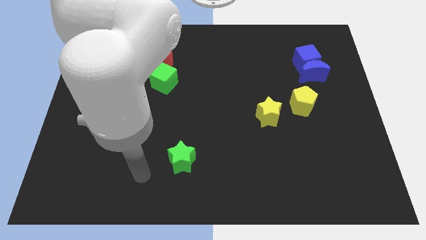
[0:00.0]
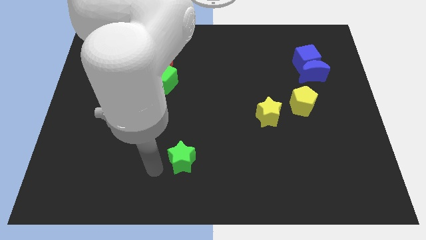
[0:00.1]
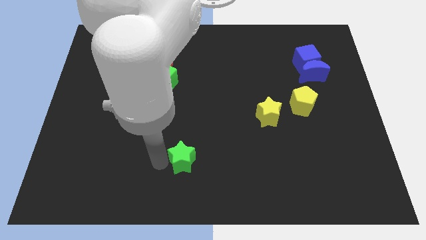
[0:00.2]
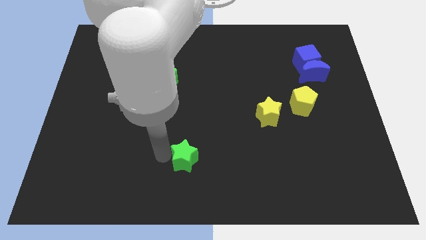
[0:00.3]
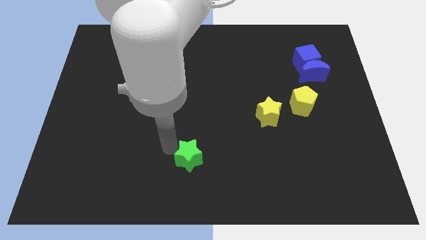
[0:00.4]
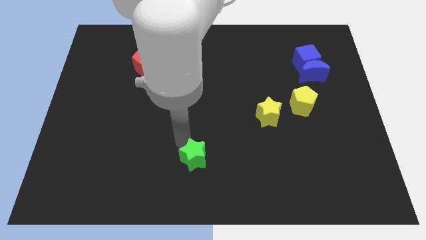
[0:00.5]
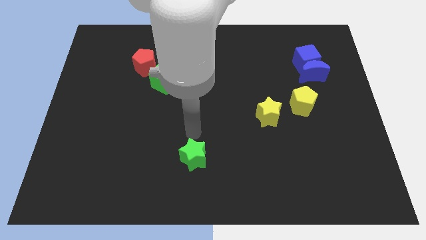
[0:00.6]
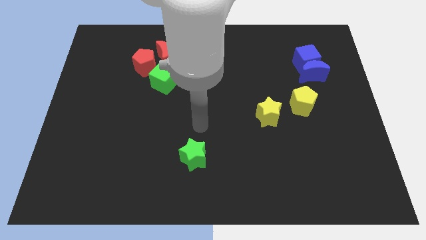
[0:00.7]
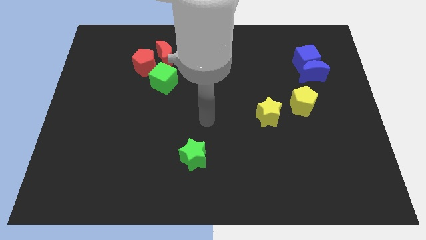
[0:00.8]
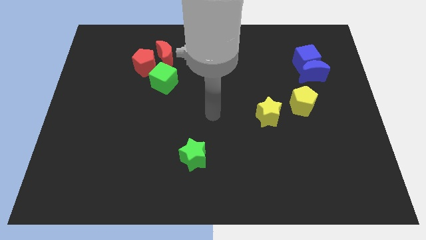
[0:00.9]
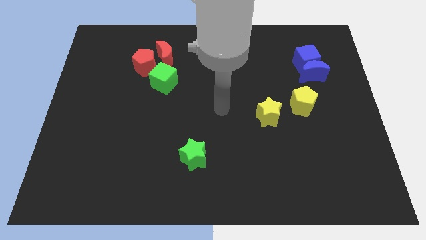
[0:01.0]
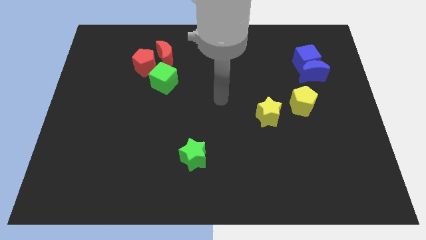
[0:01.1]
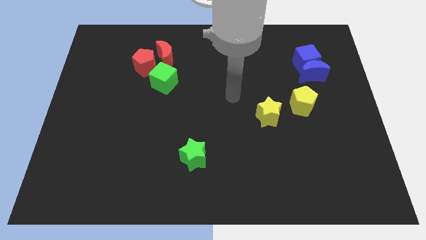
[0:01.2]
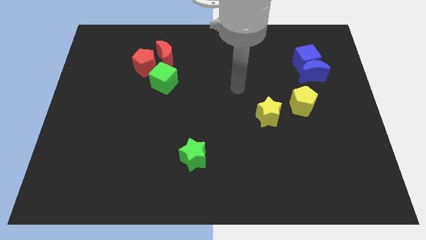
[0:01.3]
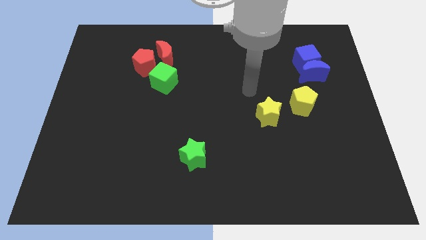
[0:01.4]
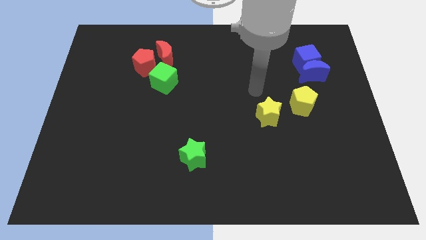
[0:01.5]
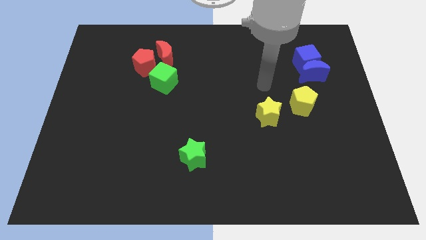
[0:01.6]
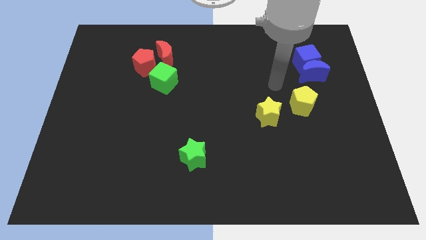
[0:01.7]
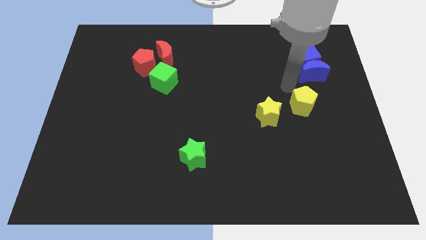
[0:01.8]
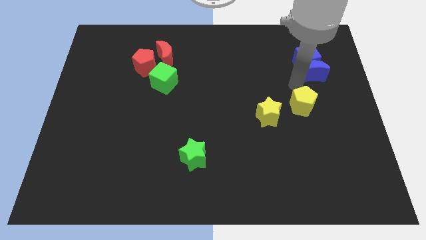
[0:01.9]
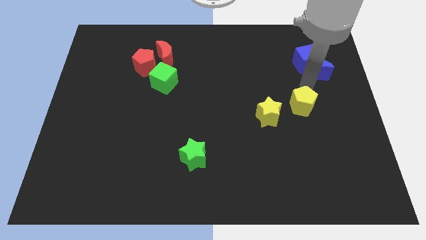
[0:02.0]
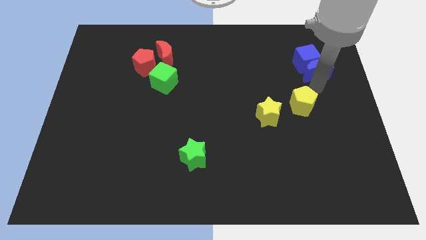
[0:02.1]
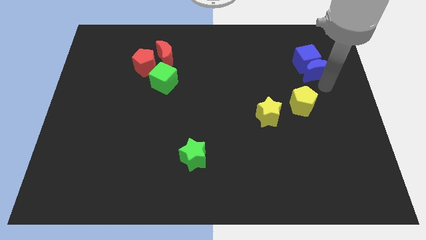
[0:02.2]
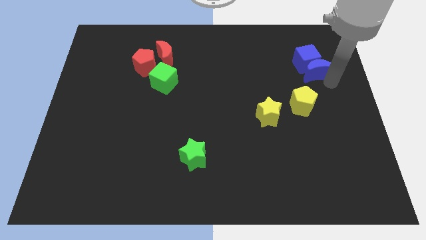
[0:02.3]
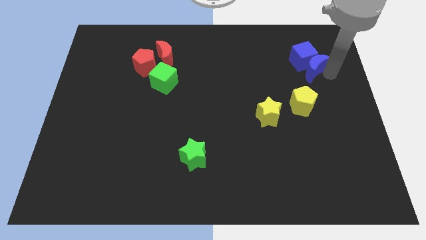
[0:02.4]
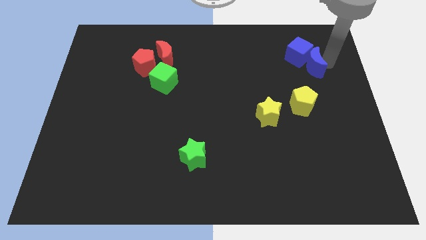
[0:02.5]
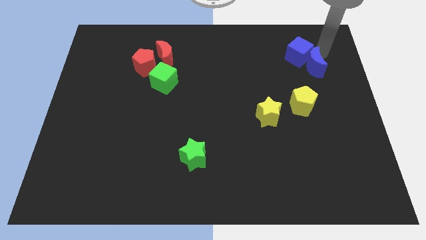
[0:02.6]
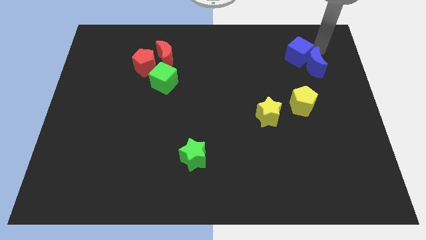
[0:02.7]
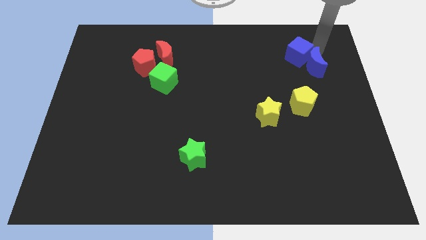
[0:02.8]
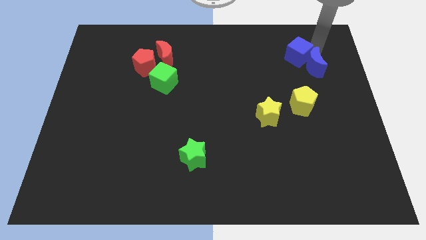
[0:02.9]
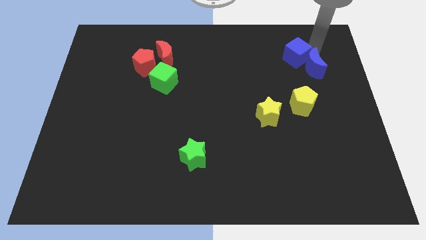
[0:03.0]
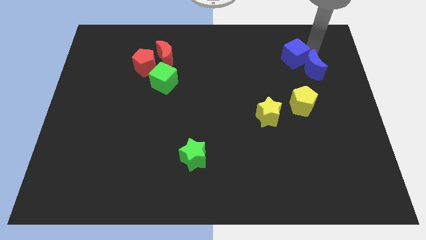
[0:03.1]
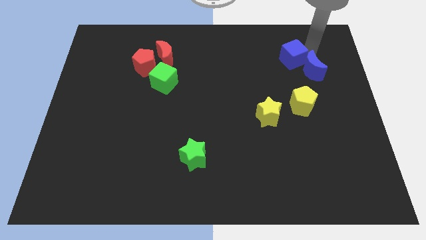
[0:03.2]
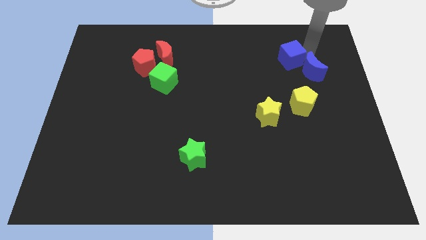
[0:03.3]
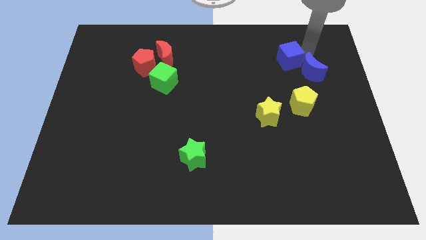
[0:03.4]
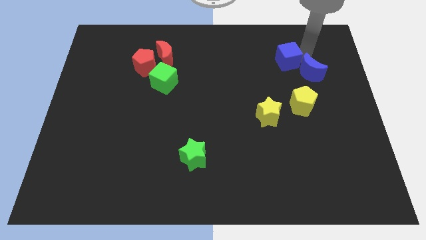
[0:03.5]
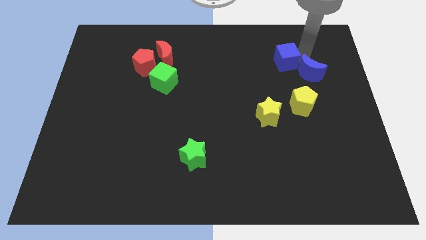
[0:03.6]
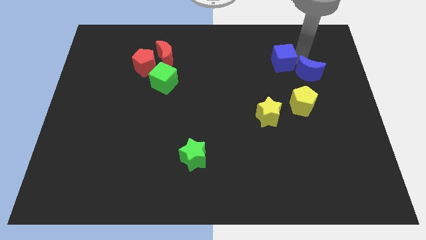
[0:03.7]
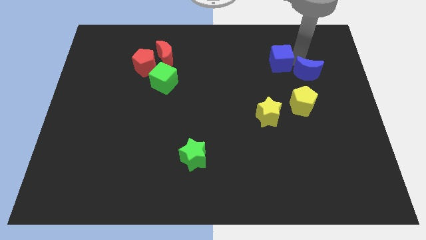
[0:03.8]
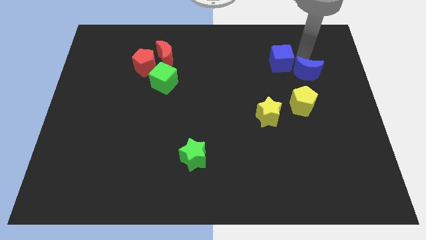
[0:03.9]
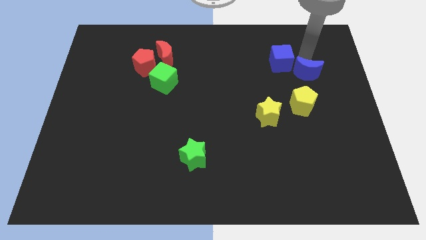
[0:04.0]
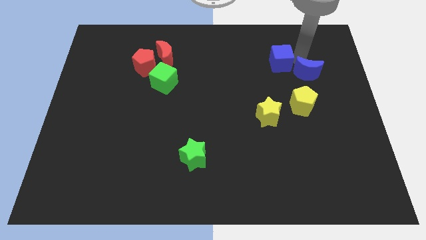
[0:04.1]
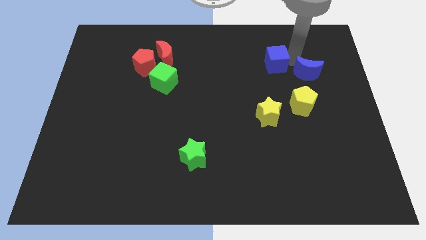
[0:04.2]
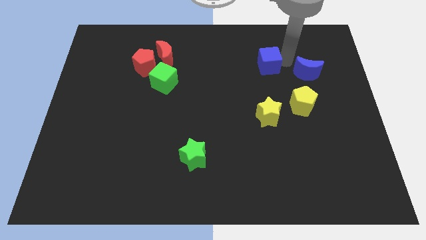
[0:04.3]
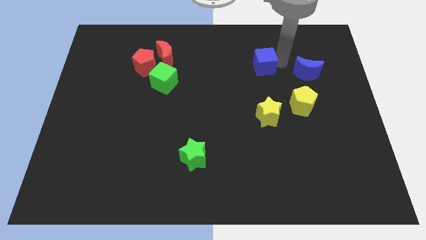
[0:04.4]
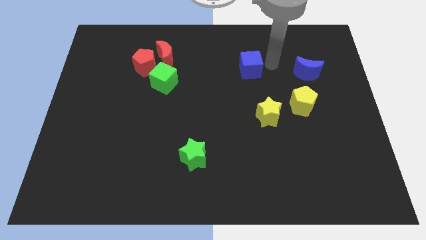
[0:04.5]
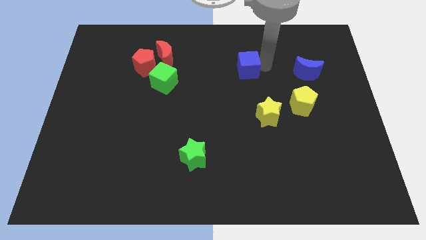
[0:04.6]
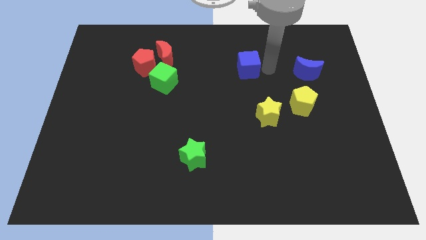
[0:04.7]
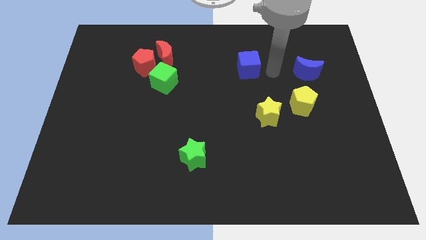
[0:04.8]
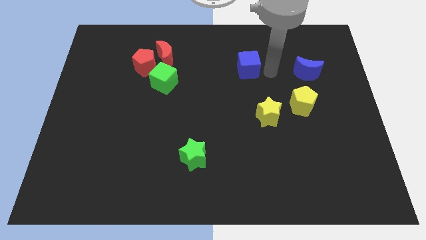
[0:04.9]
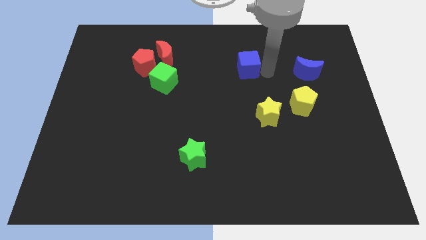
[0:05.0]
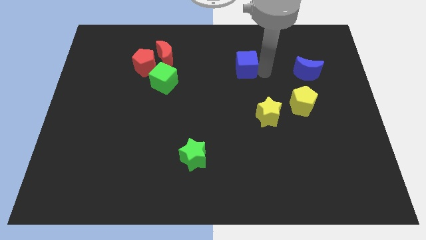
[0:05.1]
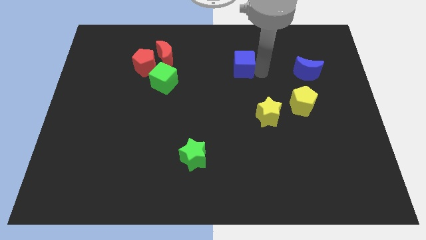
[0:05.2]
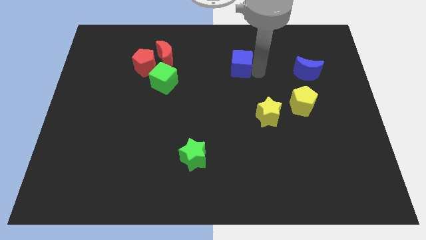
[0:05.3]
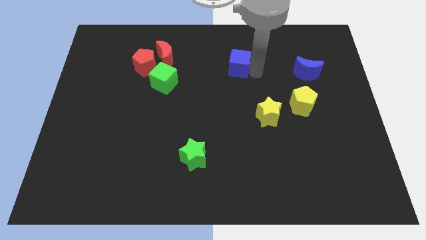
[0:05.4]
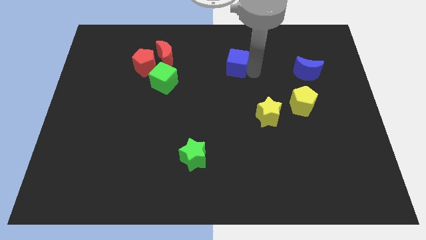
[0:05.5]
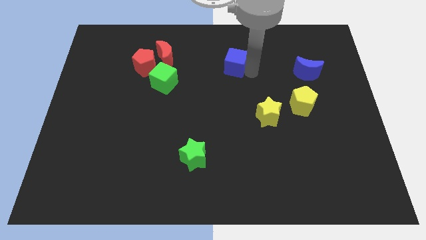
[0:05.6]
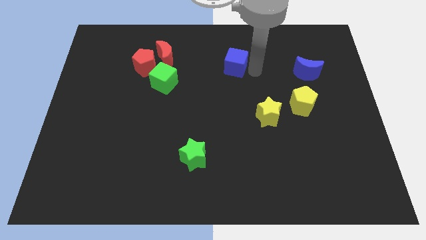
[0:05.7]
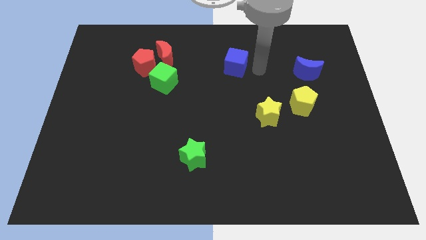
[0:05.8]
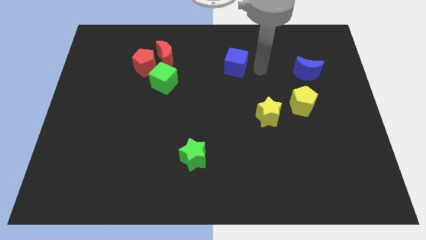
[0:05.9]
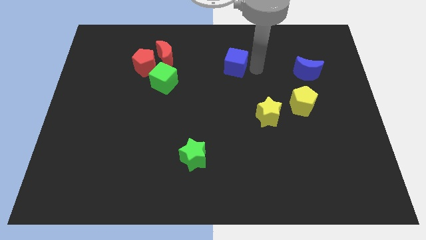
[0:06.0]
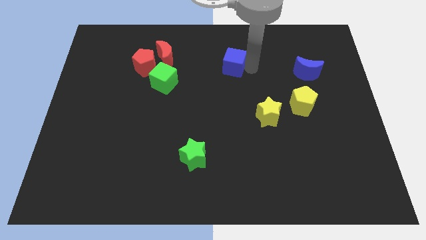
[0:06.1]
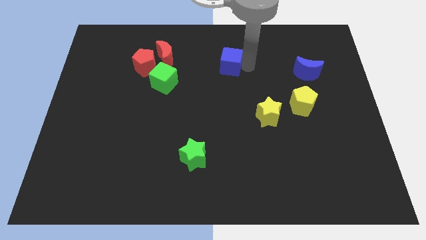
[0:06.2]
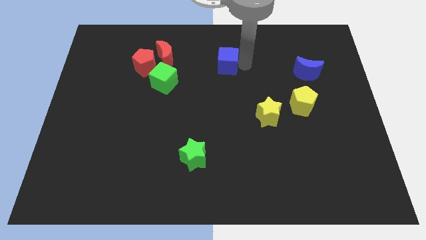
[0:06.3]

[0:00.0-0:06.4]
move the blue cube left

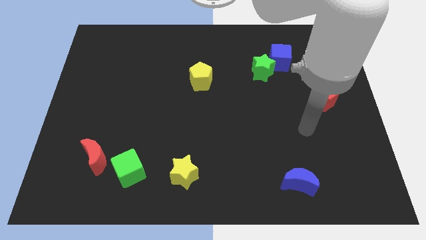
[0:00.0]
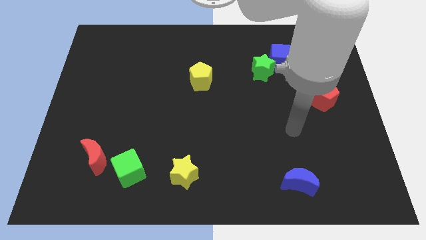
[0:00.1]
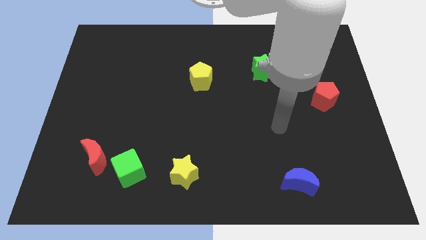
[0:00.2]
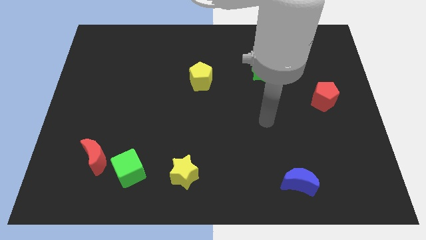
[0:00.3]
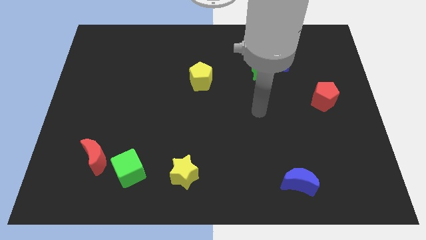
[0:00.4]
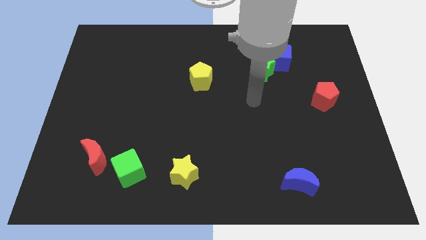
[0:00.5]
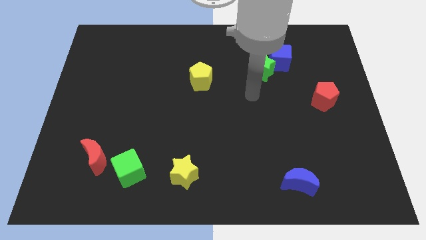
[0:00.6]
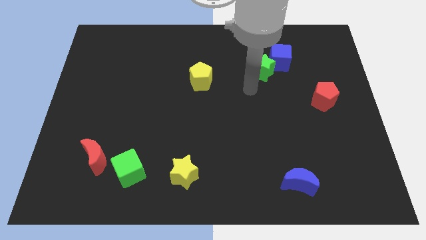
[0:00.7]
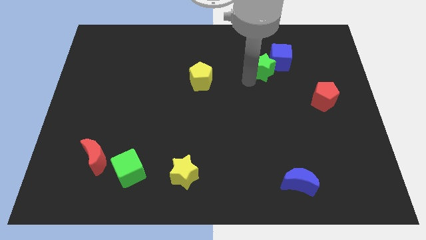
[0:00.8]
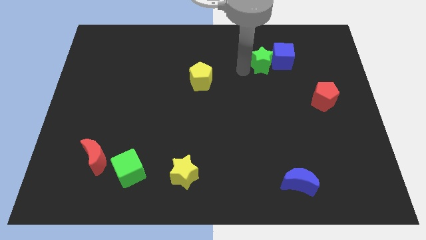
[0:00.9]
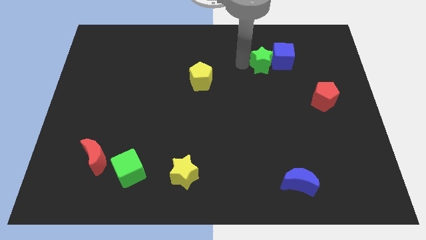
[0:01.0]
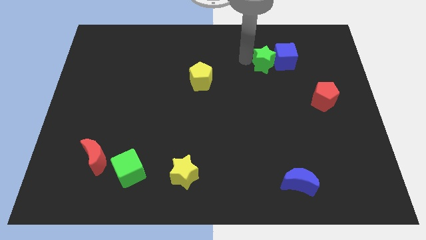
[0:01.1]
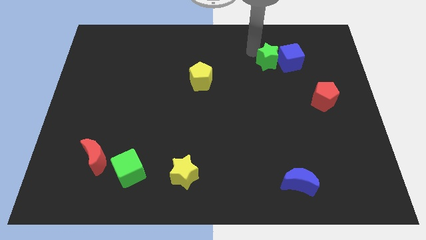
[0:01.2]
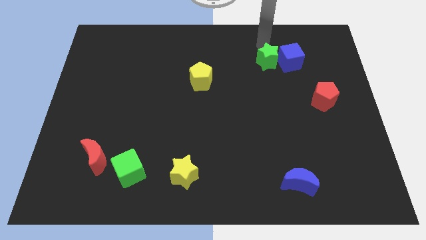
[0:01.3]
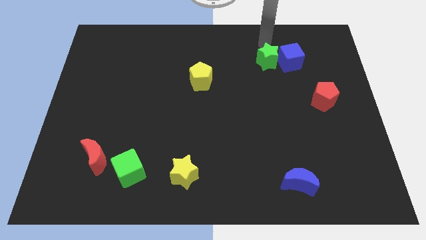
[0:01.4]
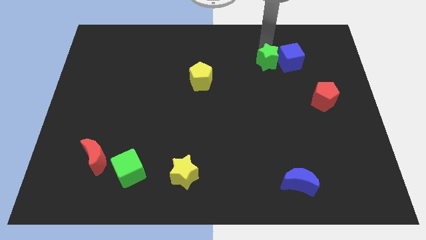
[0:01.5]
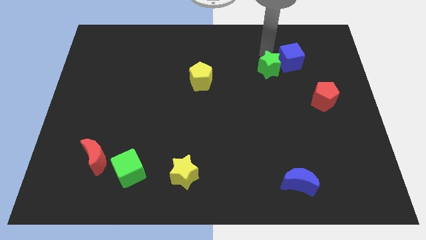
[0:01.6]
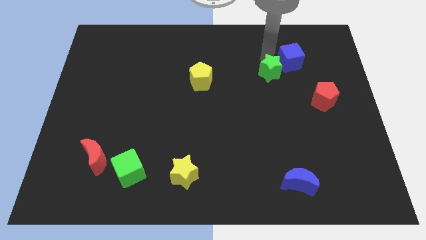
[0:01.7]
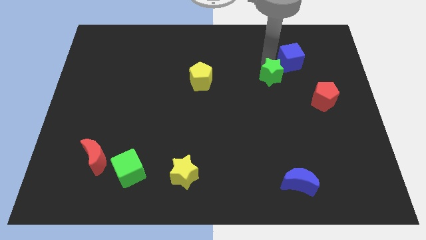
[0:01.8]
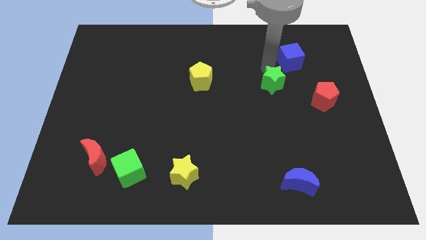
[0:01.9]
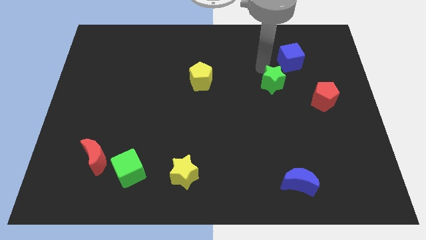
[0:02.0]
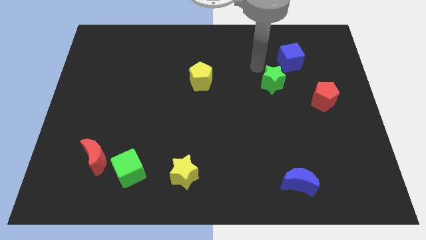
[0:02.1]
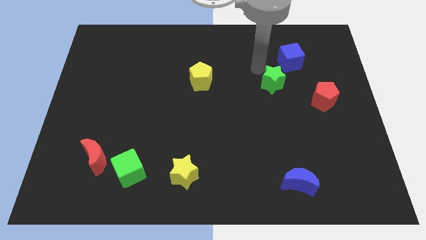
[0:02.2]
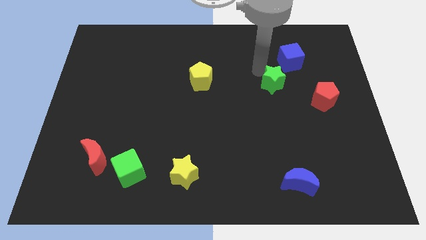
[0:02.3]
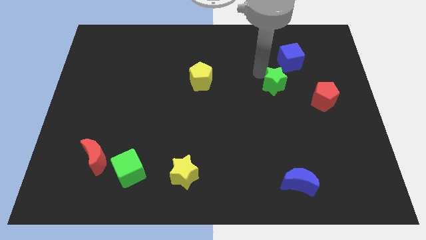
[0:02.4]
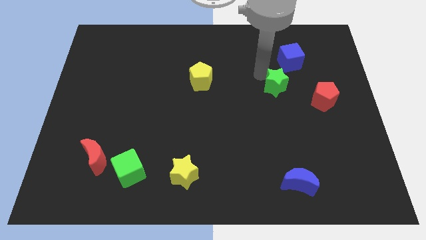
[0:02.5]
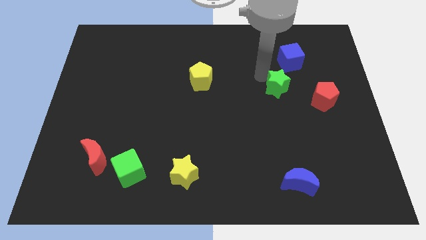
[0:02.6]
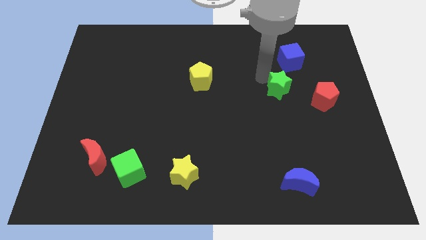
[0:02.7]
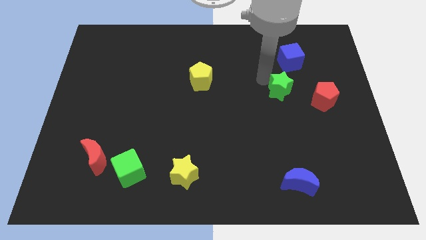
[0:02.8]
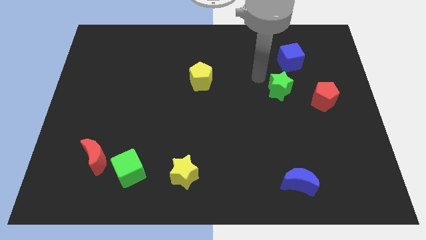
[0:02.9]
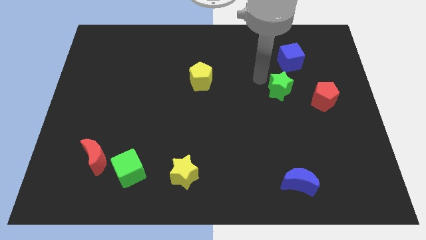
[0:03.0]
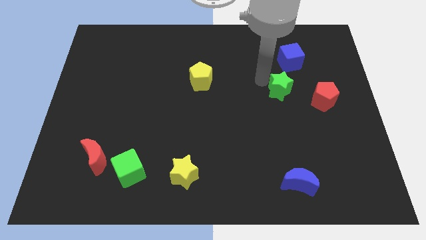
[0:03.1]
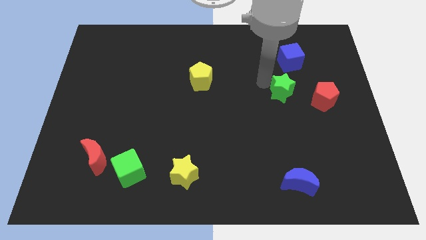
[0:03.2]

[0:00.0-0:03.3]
move the green star downwards and right diagonally slightly
